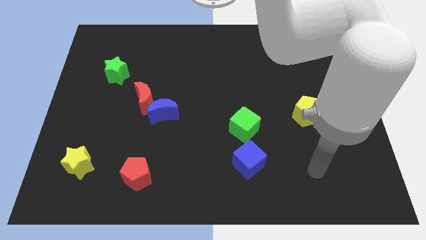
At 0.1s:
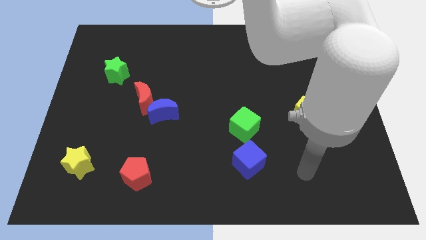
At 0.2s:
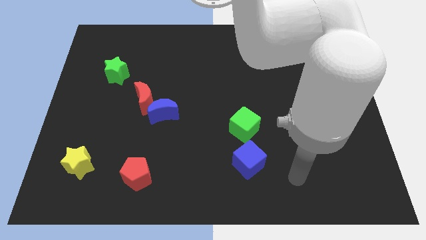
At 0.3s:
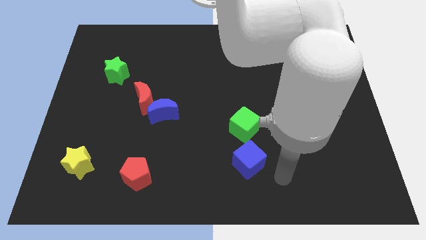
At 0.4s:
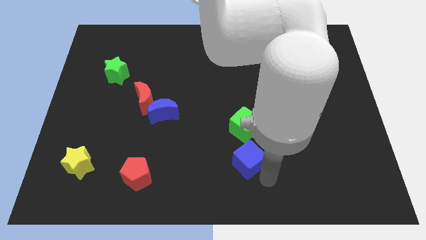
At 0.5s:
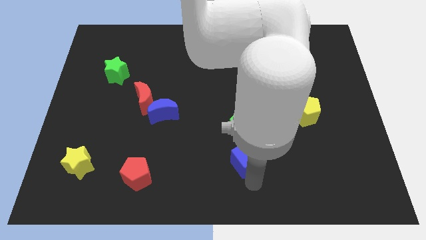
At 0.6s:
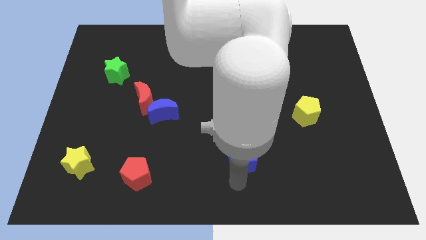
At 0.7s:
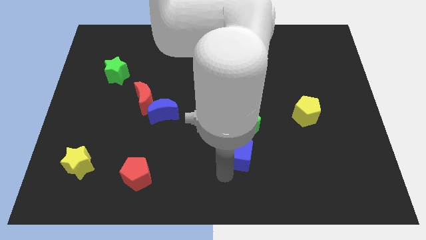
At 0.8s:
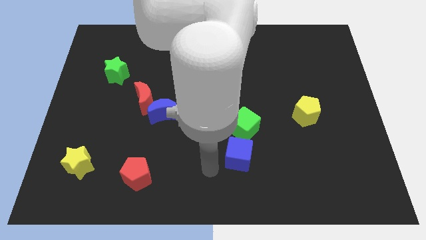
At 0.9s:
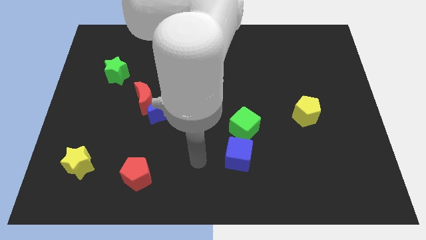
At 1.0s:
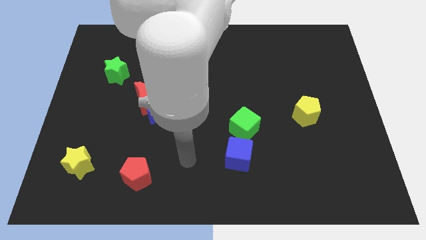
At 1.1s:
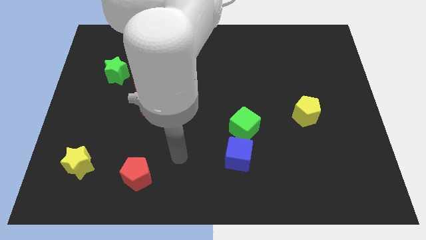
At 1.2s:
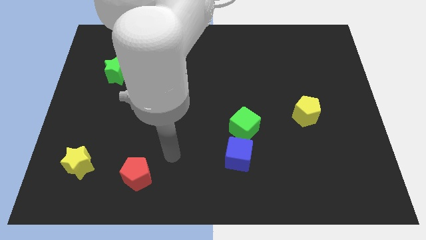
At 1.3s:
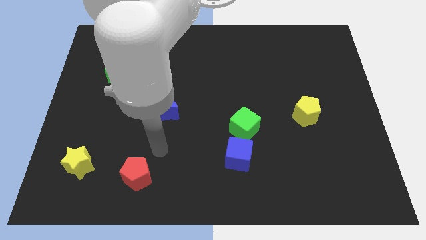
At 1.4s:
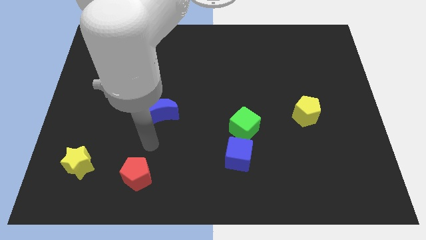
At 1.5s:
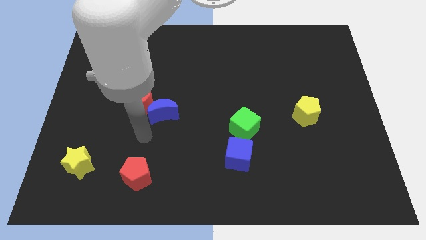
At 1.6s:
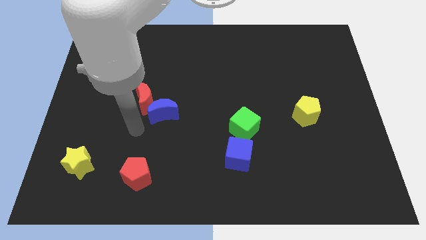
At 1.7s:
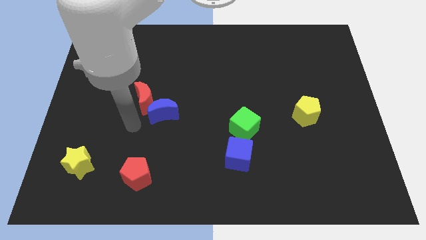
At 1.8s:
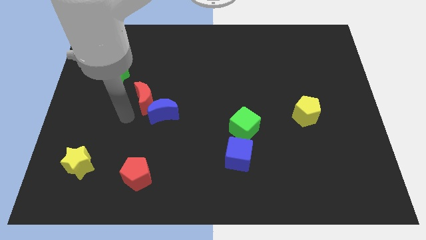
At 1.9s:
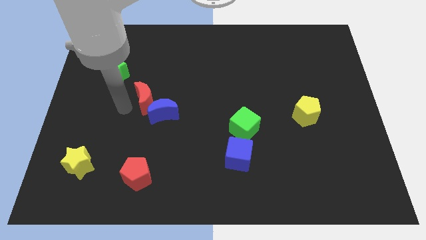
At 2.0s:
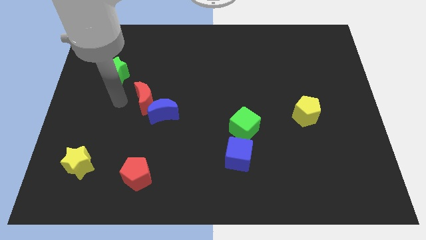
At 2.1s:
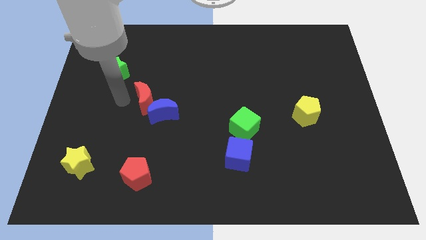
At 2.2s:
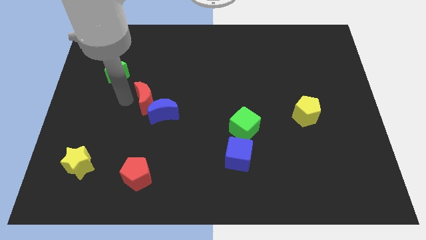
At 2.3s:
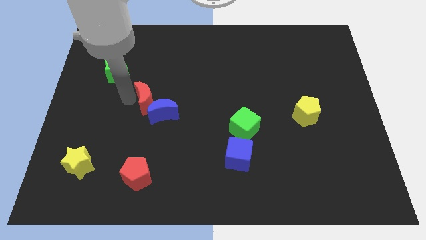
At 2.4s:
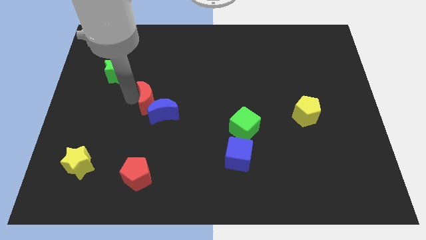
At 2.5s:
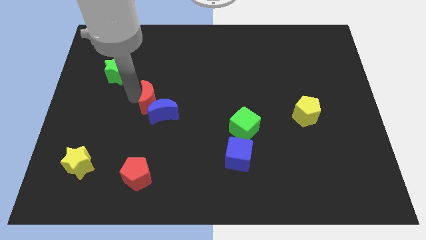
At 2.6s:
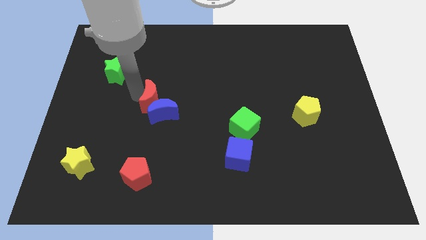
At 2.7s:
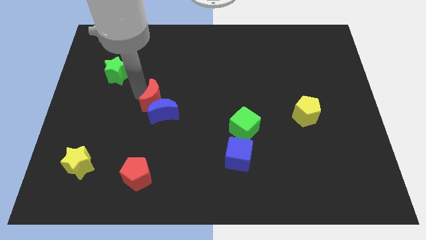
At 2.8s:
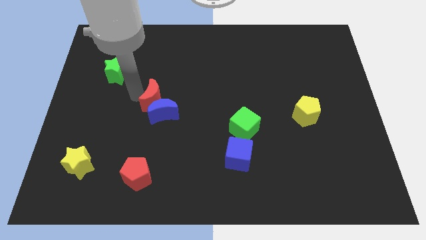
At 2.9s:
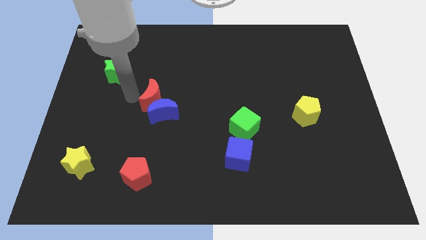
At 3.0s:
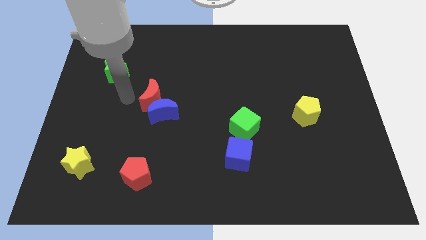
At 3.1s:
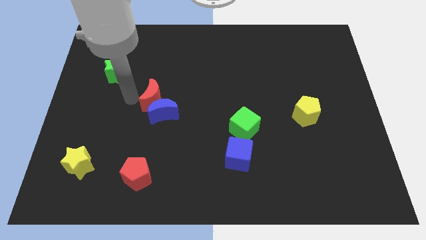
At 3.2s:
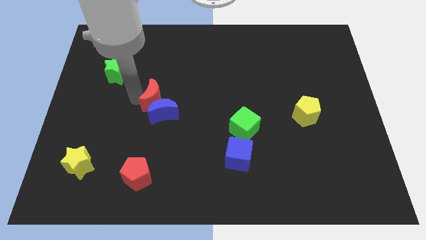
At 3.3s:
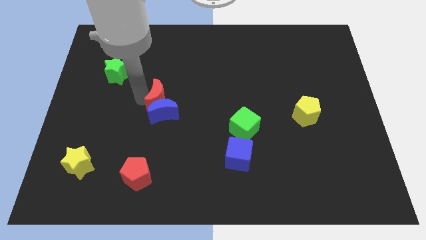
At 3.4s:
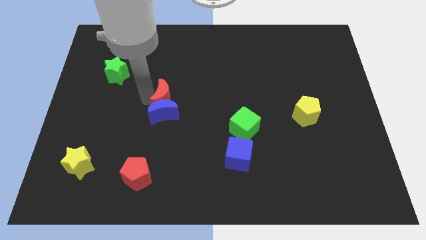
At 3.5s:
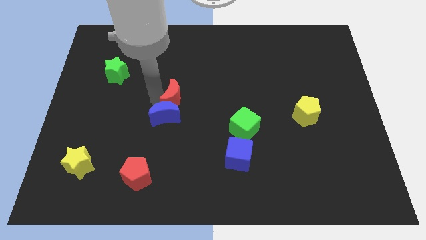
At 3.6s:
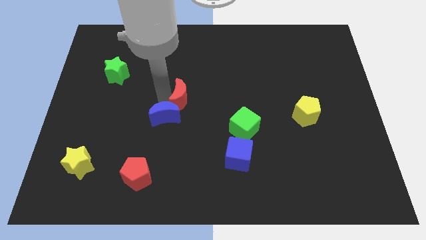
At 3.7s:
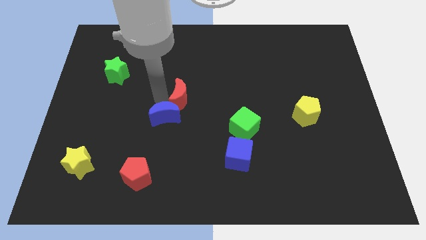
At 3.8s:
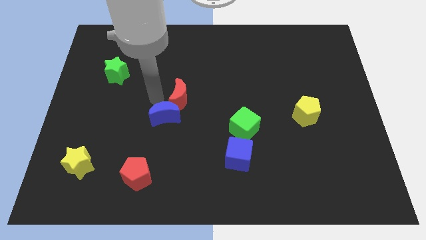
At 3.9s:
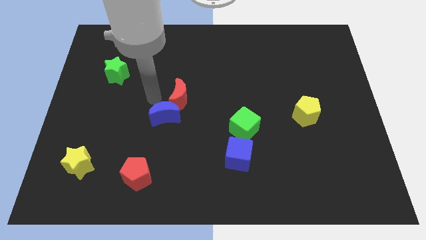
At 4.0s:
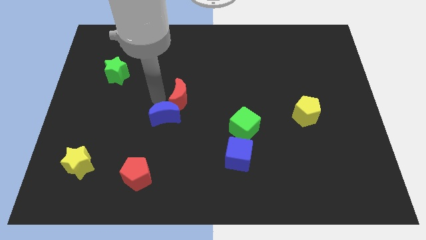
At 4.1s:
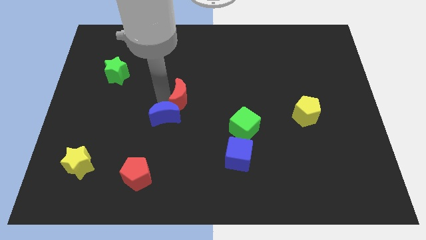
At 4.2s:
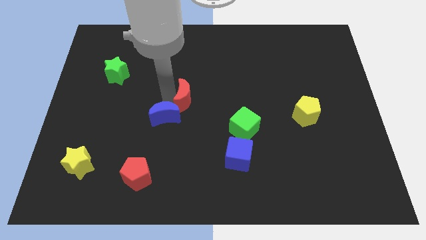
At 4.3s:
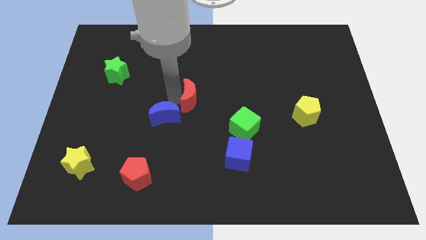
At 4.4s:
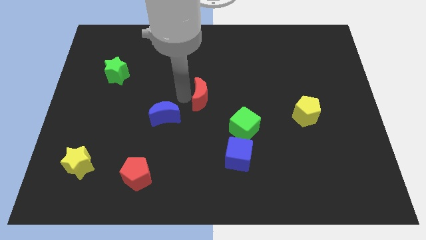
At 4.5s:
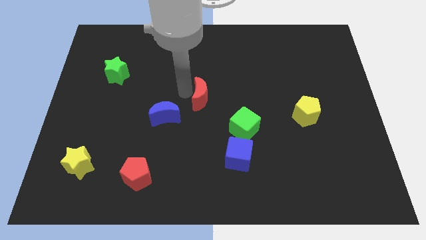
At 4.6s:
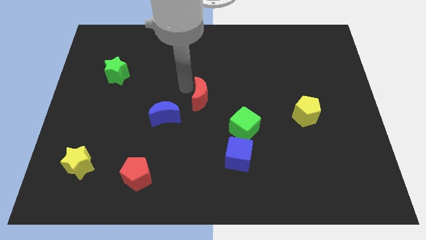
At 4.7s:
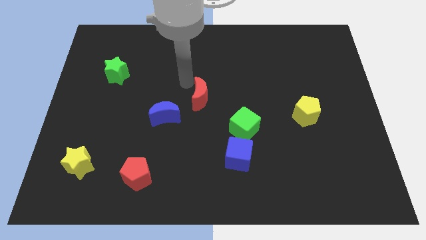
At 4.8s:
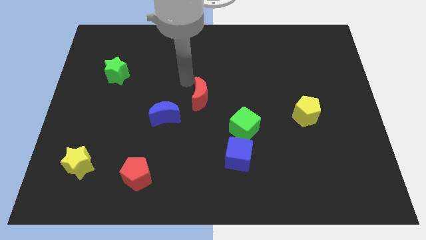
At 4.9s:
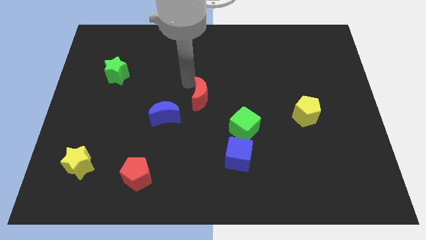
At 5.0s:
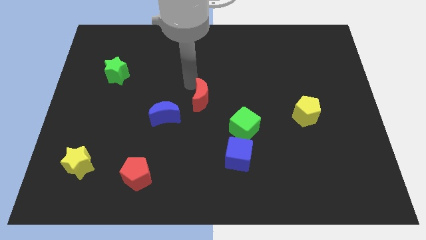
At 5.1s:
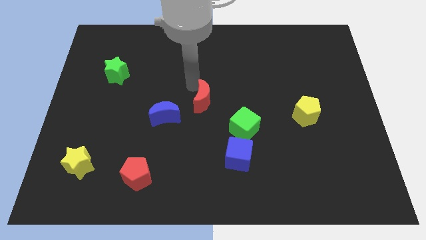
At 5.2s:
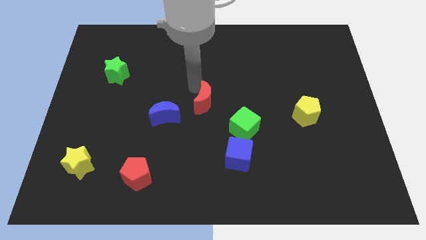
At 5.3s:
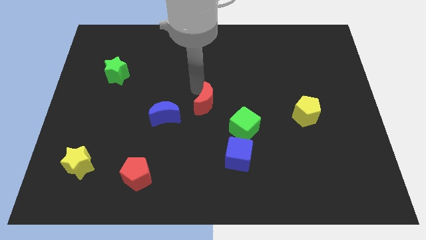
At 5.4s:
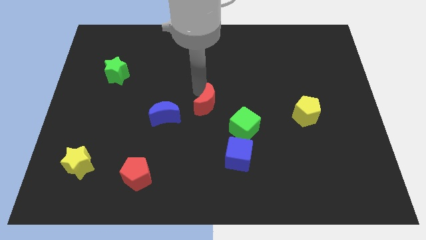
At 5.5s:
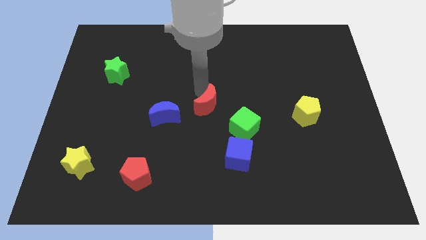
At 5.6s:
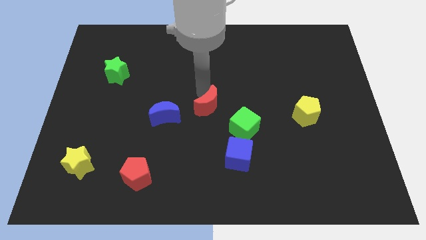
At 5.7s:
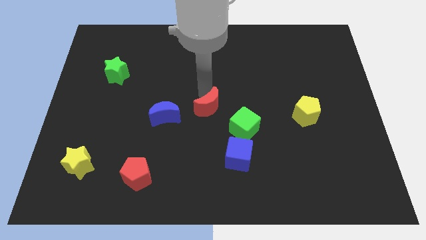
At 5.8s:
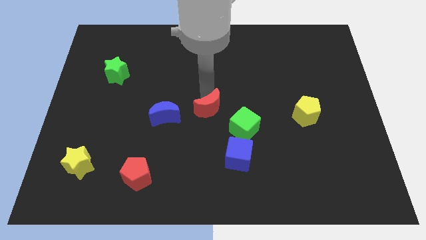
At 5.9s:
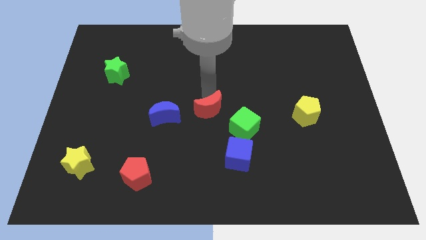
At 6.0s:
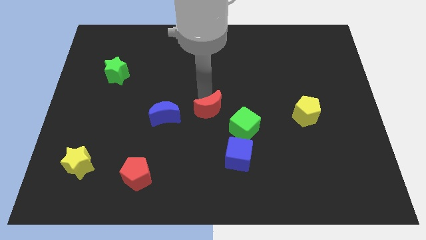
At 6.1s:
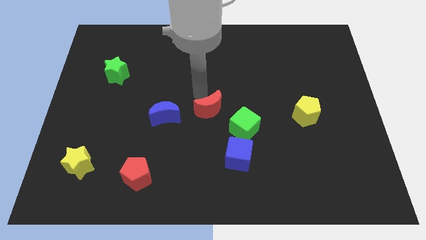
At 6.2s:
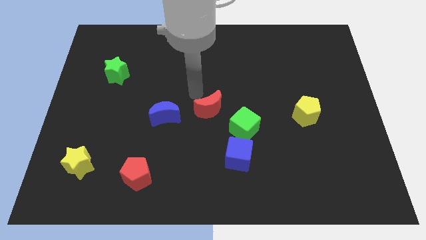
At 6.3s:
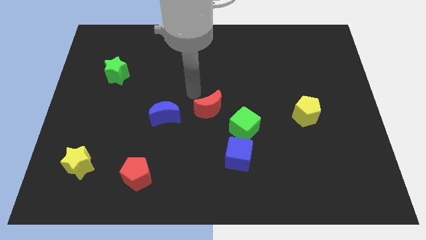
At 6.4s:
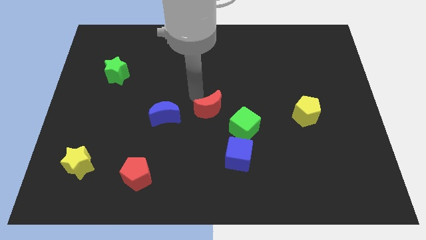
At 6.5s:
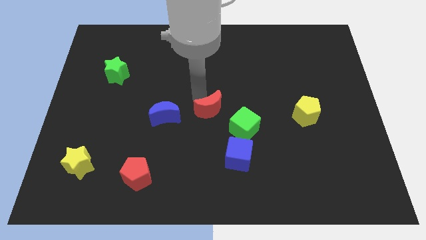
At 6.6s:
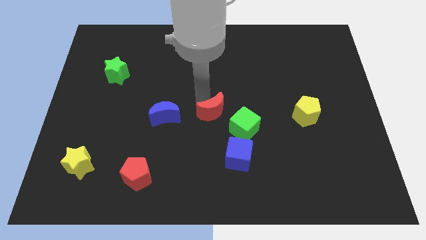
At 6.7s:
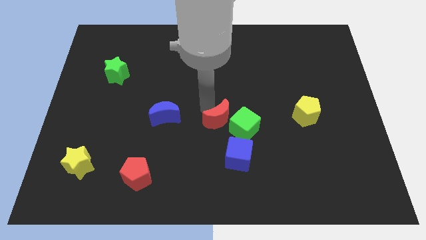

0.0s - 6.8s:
slide the red moon towards the green cube
